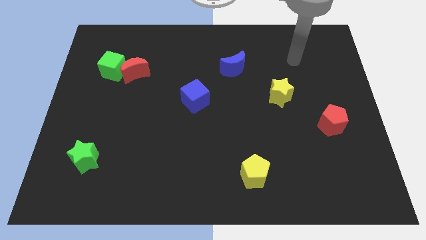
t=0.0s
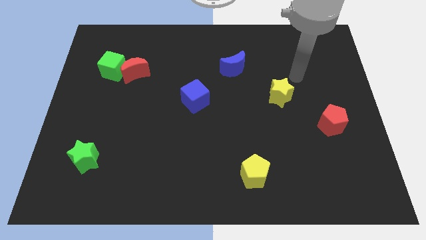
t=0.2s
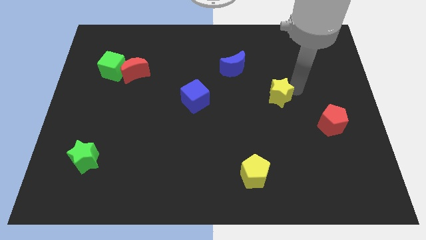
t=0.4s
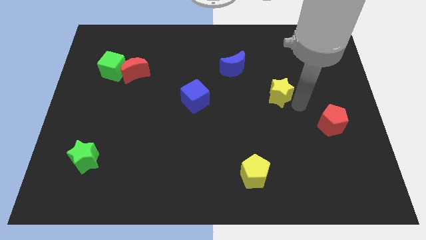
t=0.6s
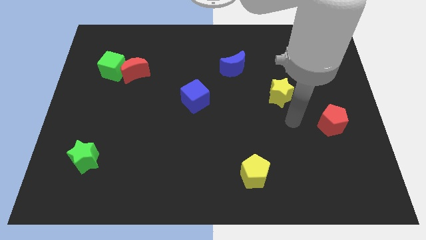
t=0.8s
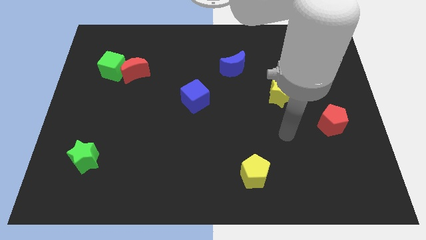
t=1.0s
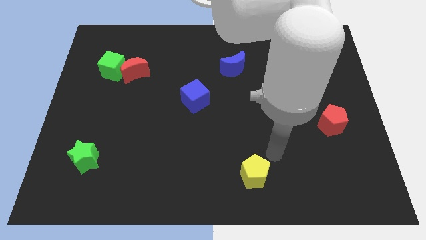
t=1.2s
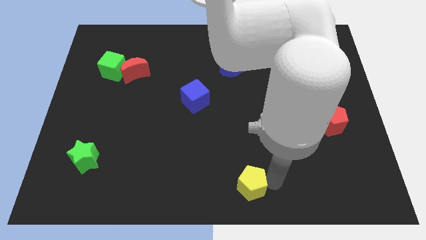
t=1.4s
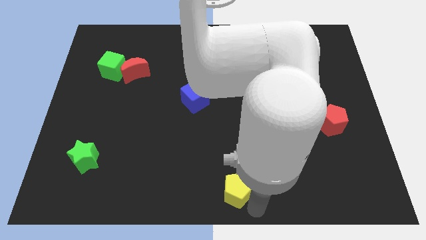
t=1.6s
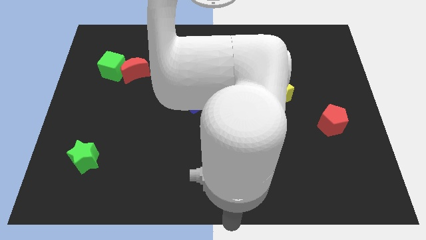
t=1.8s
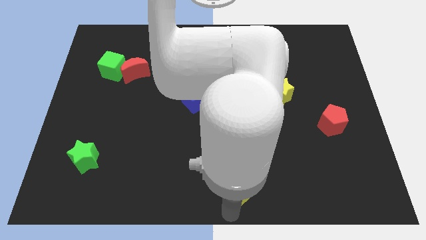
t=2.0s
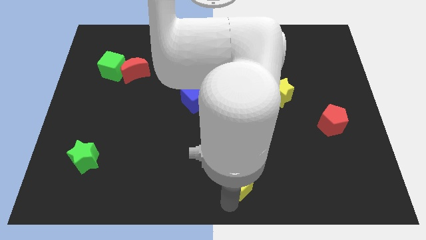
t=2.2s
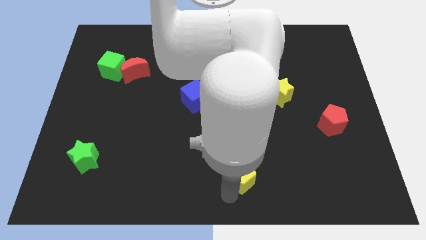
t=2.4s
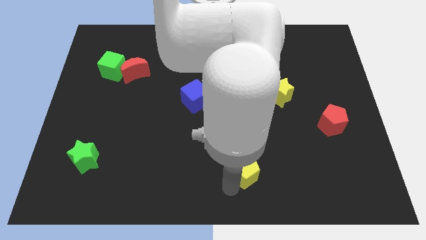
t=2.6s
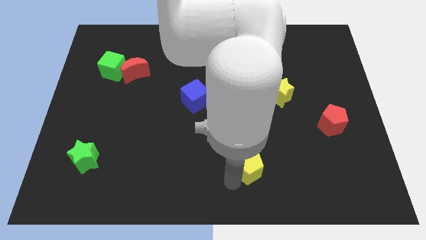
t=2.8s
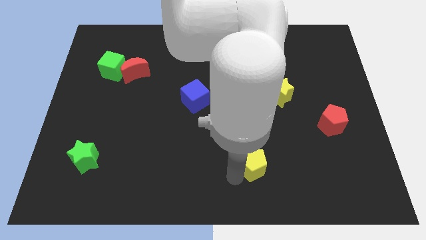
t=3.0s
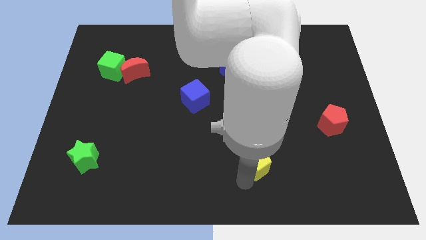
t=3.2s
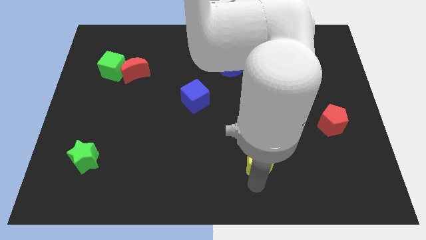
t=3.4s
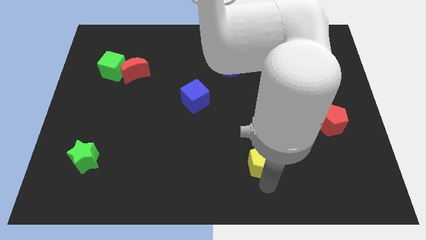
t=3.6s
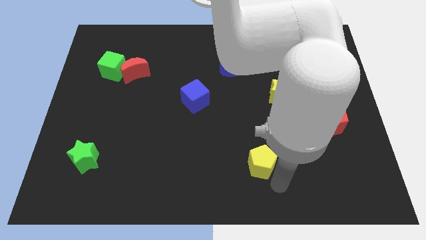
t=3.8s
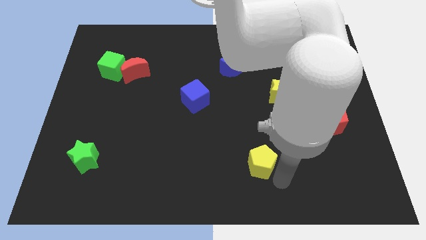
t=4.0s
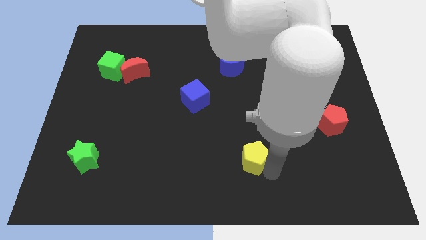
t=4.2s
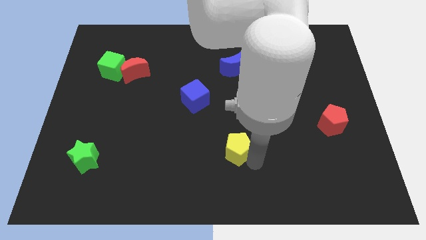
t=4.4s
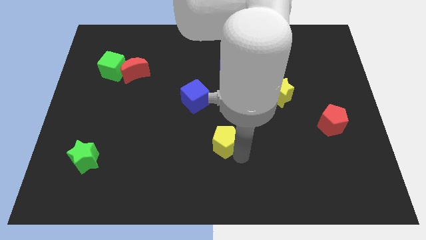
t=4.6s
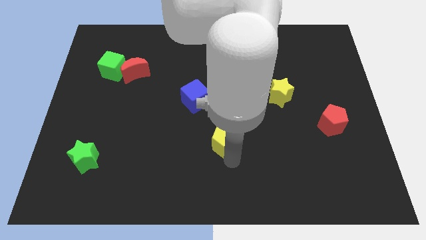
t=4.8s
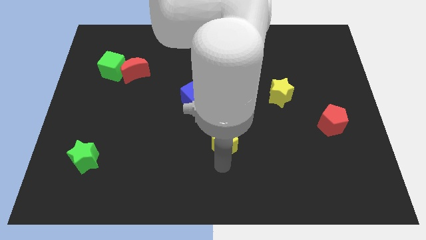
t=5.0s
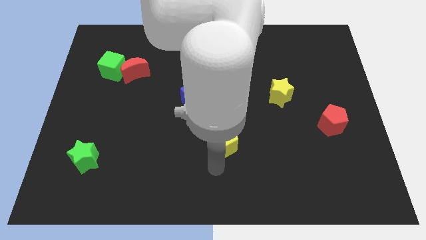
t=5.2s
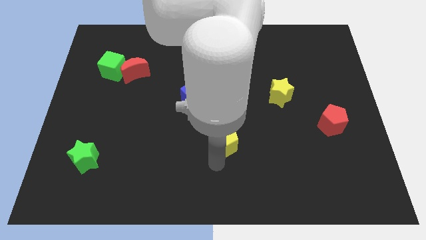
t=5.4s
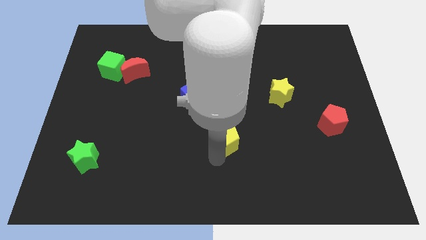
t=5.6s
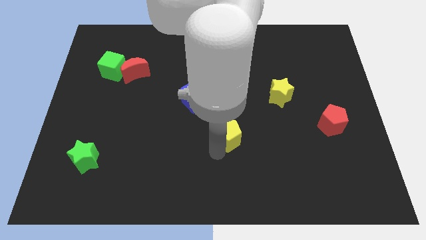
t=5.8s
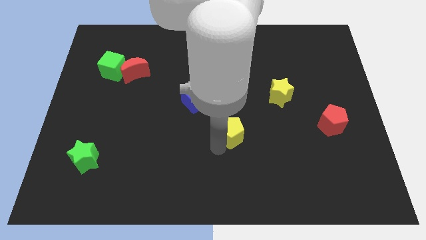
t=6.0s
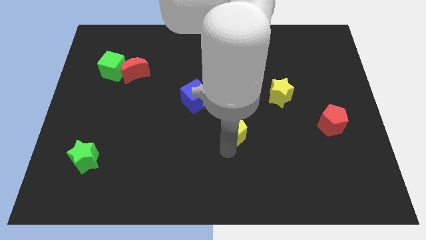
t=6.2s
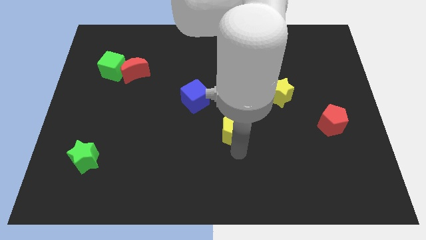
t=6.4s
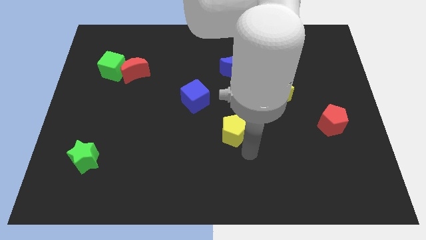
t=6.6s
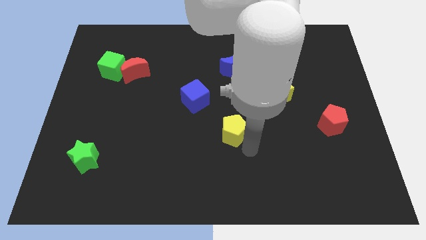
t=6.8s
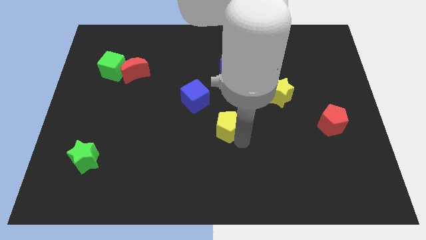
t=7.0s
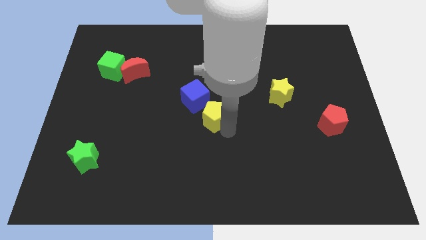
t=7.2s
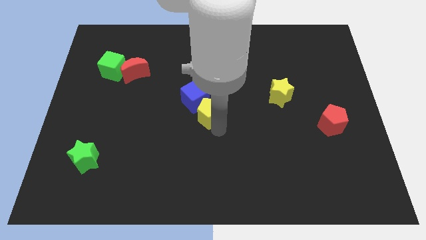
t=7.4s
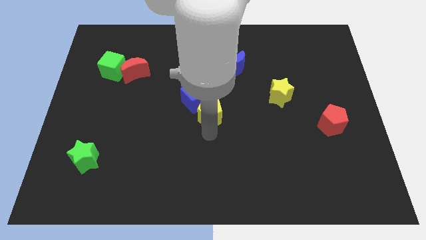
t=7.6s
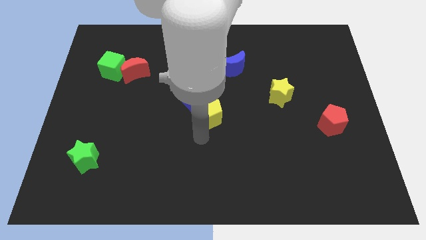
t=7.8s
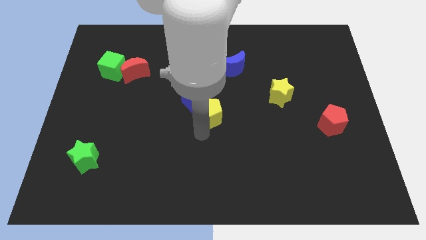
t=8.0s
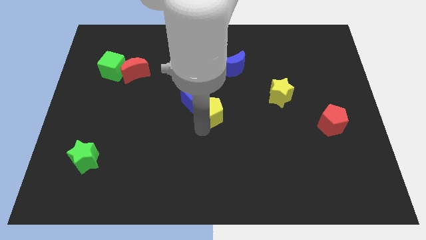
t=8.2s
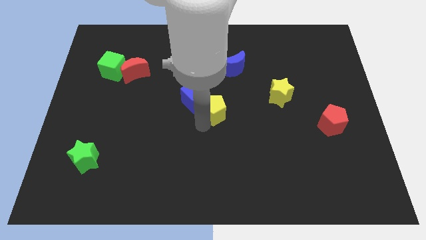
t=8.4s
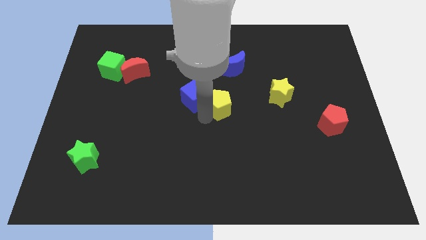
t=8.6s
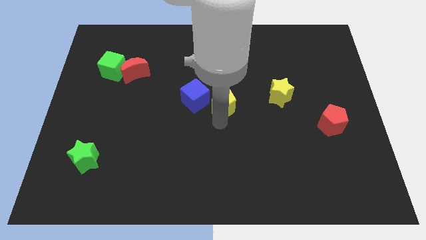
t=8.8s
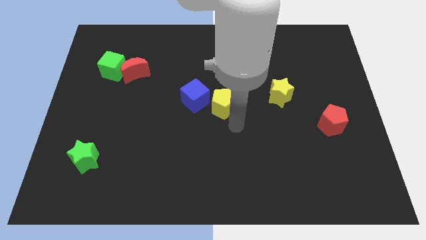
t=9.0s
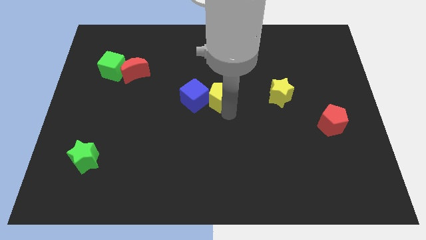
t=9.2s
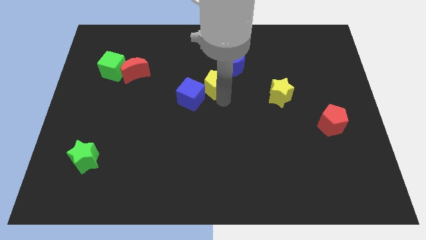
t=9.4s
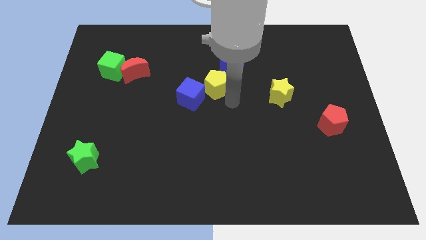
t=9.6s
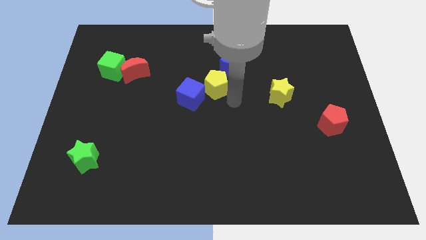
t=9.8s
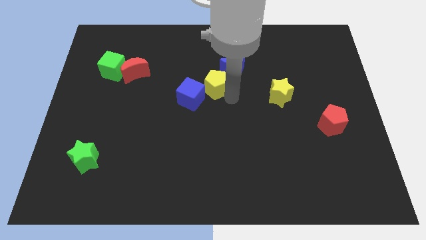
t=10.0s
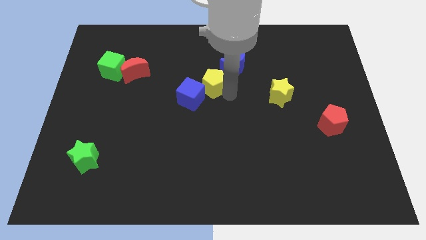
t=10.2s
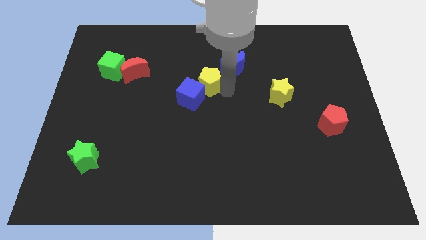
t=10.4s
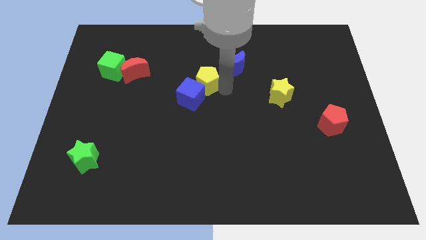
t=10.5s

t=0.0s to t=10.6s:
push the yellow pentagon just left of the blue moon

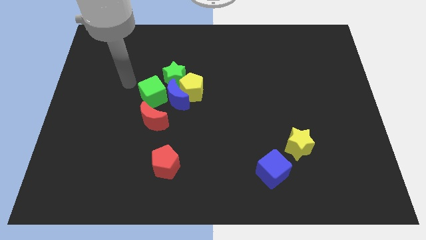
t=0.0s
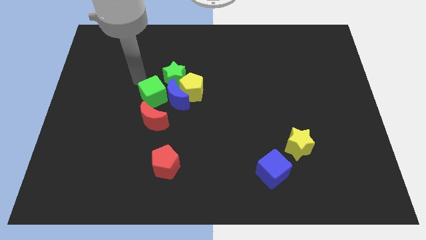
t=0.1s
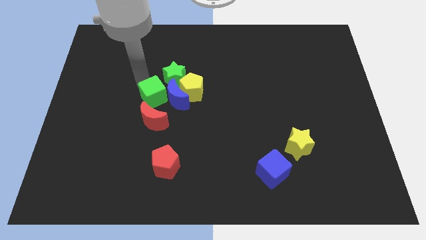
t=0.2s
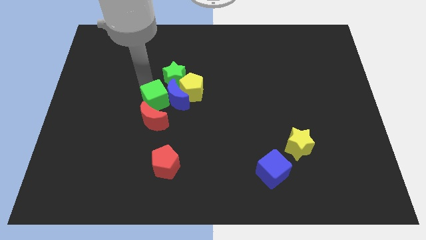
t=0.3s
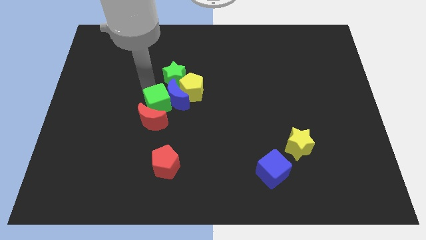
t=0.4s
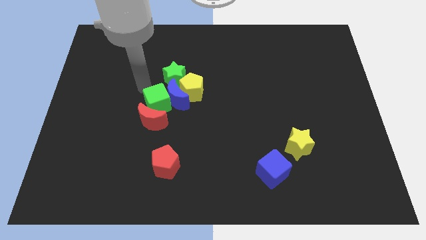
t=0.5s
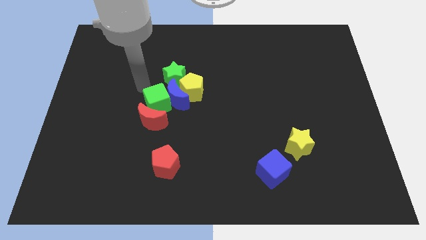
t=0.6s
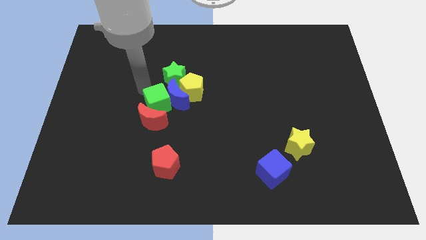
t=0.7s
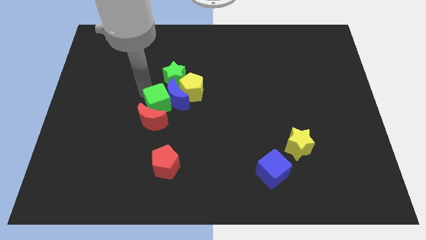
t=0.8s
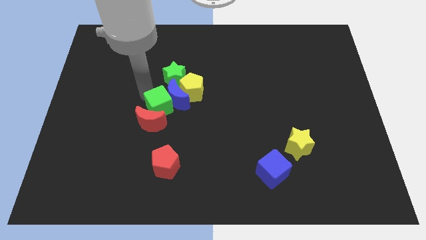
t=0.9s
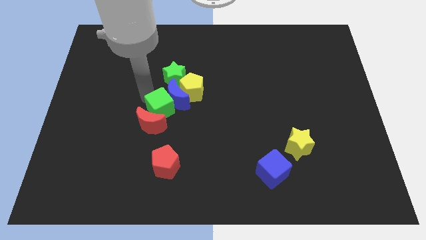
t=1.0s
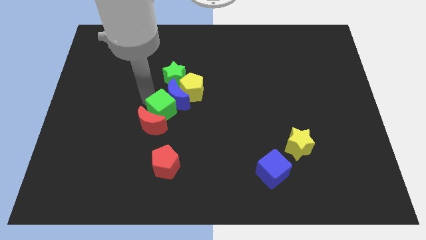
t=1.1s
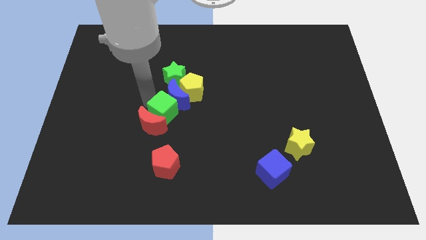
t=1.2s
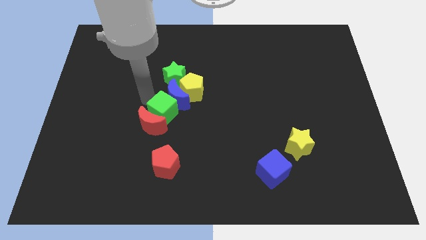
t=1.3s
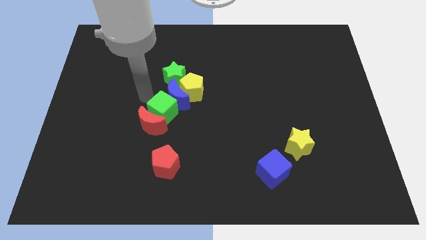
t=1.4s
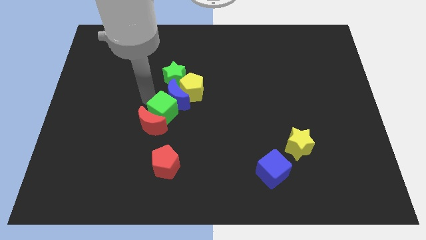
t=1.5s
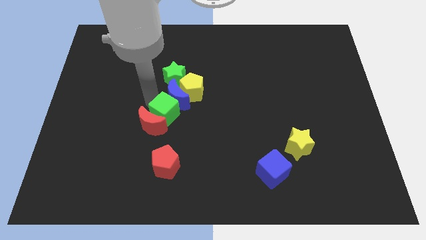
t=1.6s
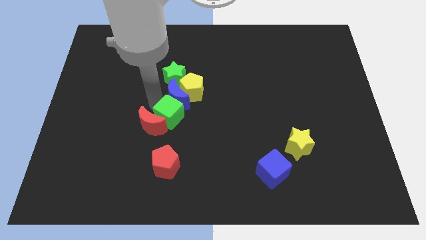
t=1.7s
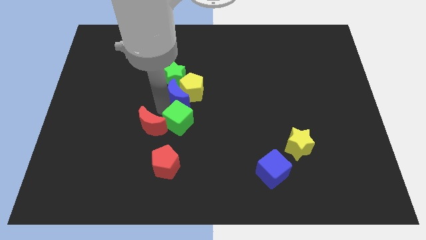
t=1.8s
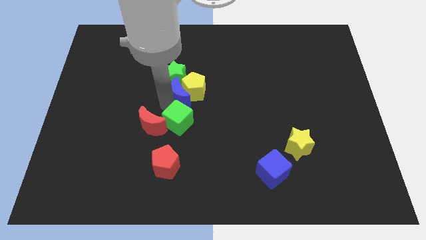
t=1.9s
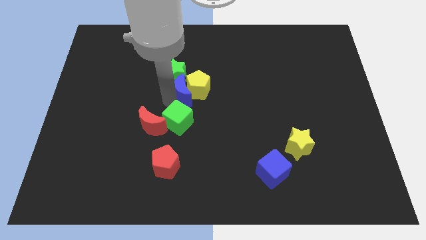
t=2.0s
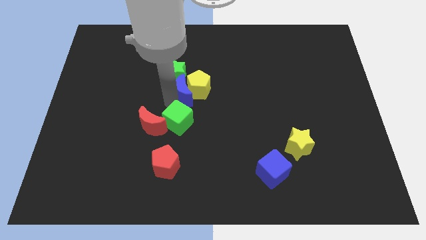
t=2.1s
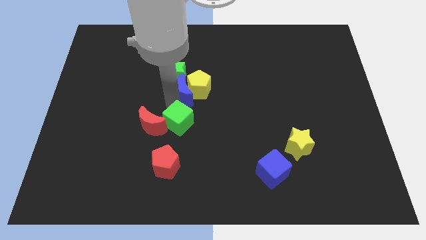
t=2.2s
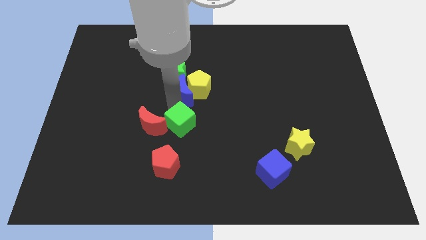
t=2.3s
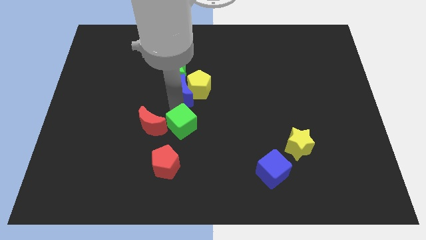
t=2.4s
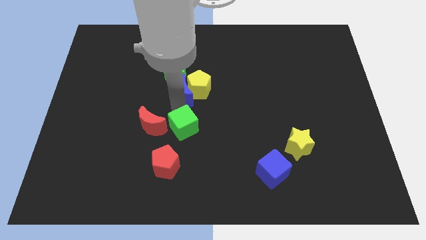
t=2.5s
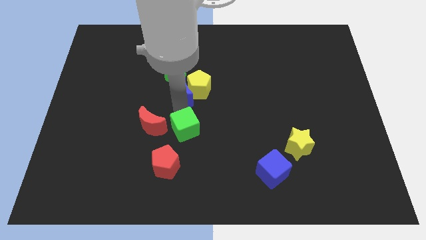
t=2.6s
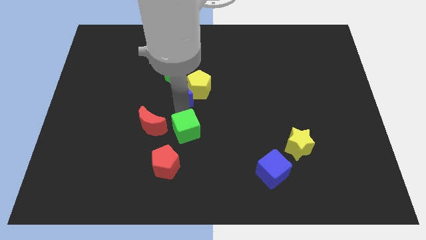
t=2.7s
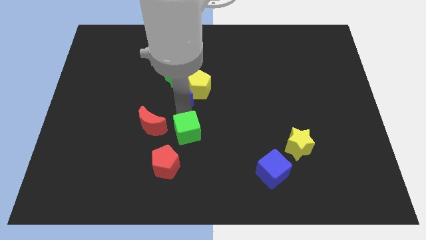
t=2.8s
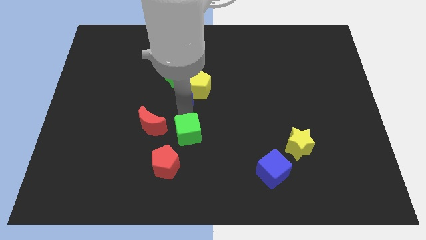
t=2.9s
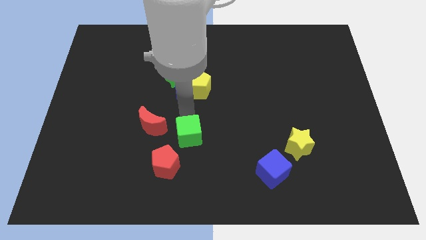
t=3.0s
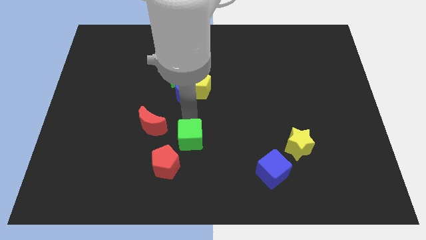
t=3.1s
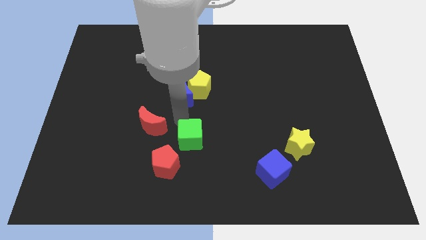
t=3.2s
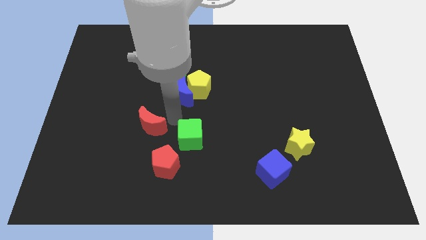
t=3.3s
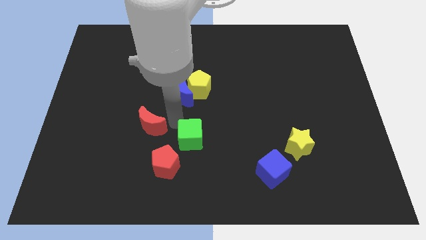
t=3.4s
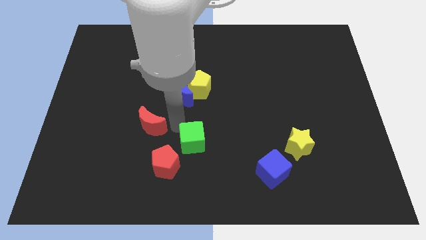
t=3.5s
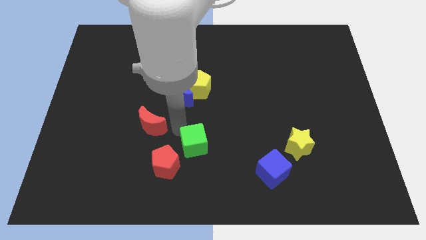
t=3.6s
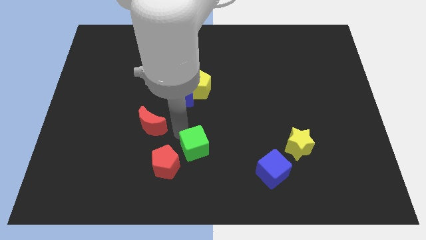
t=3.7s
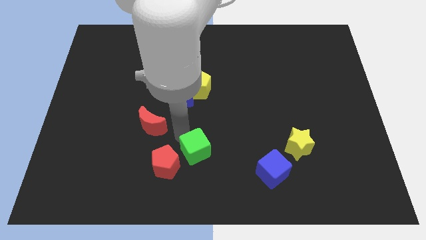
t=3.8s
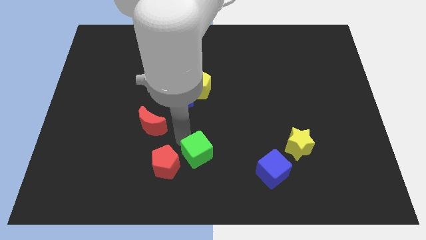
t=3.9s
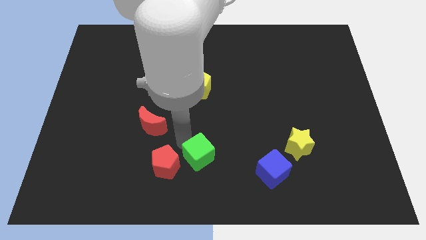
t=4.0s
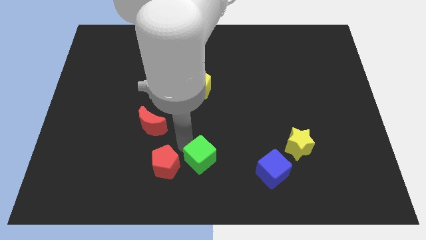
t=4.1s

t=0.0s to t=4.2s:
put the green cube left of the blue cube
